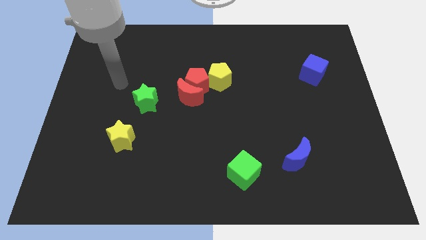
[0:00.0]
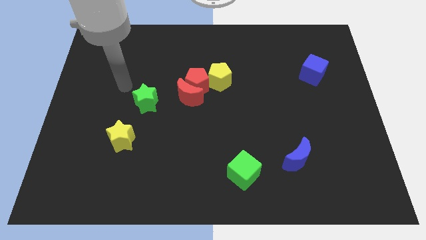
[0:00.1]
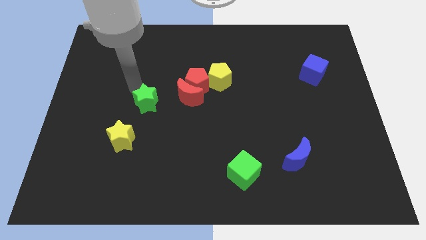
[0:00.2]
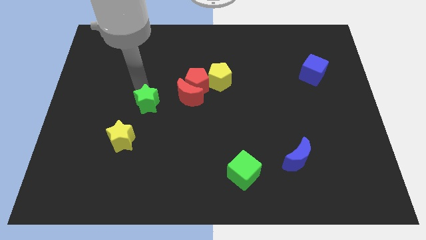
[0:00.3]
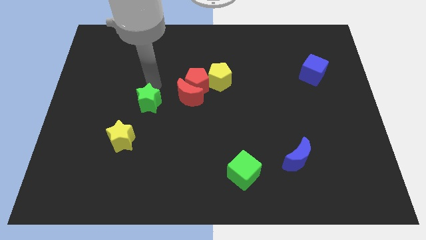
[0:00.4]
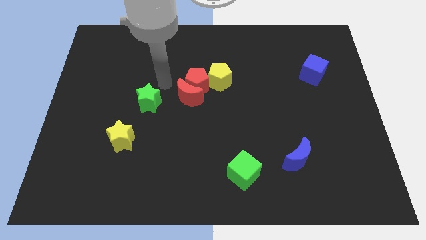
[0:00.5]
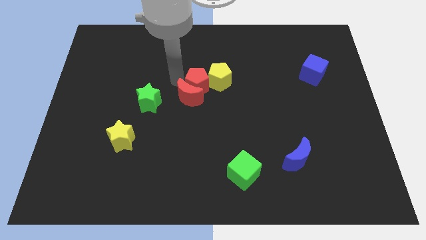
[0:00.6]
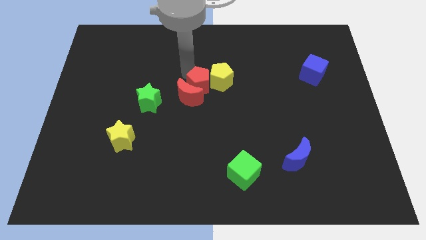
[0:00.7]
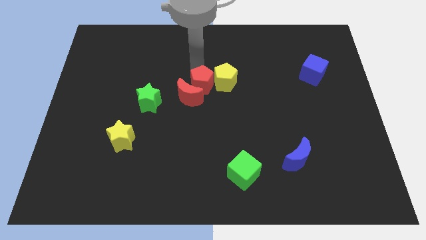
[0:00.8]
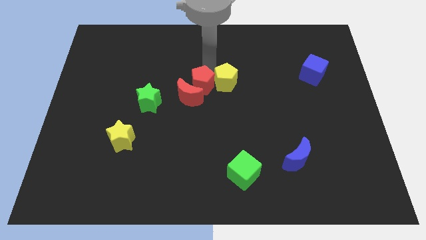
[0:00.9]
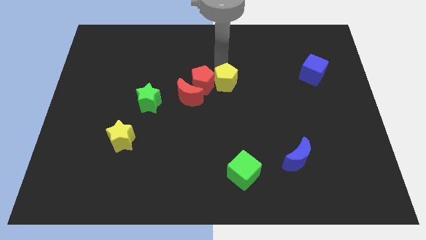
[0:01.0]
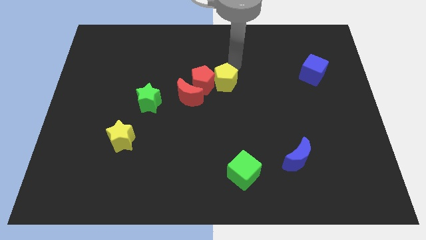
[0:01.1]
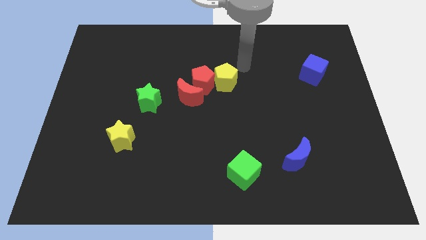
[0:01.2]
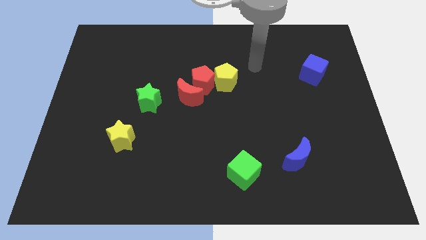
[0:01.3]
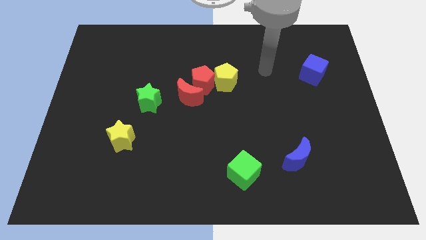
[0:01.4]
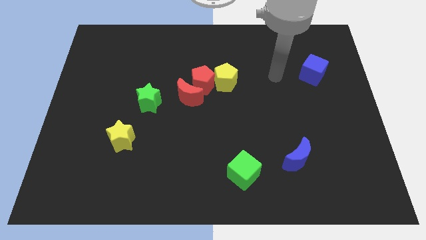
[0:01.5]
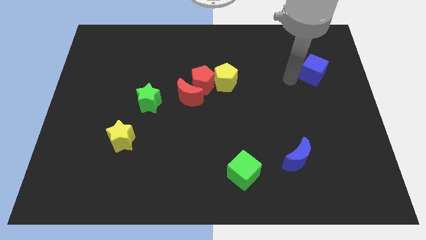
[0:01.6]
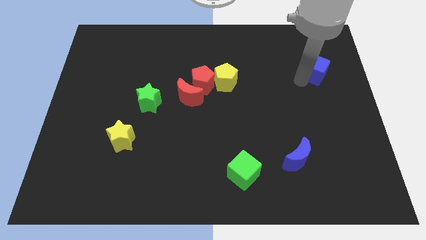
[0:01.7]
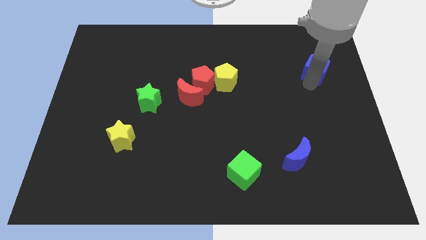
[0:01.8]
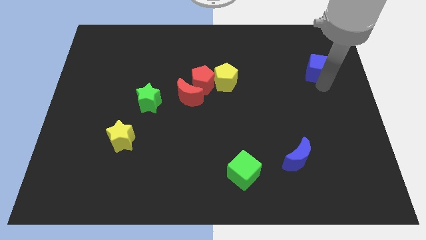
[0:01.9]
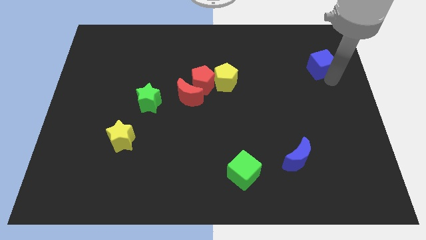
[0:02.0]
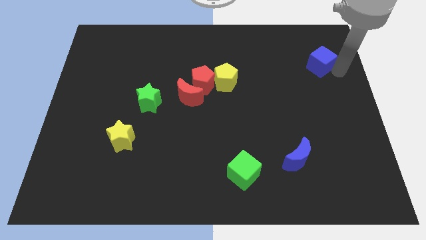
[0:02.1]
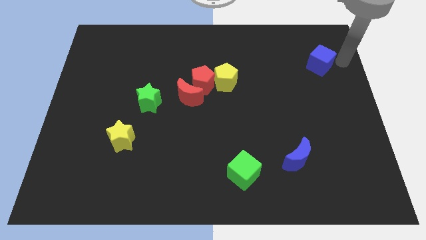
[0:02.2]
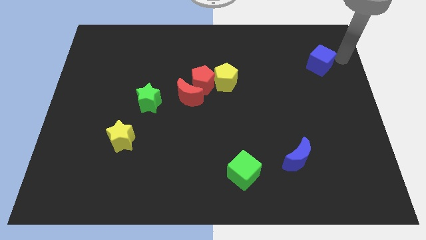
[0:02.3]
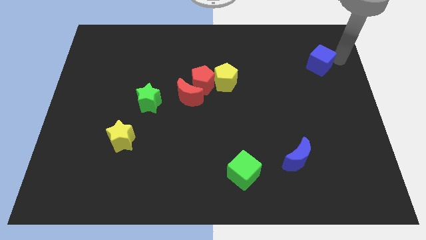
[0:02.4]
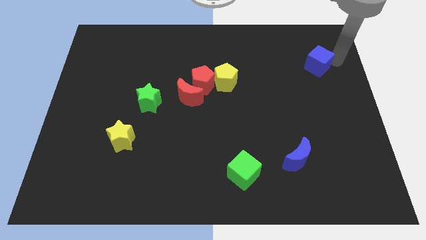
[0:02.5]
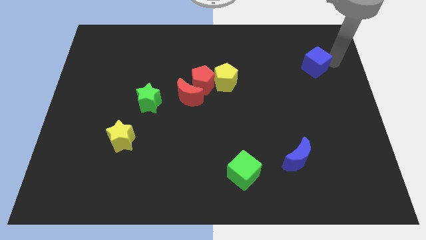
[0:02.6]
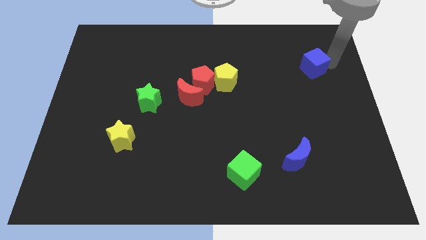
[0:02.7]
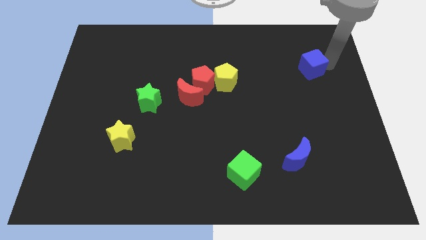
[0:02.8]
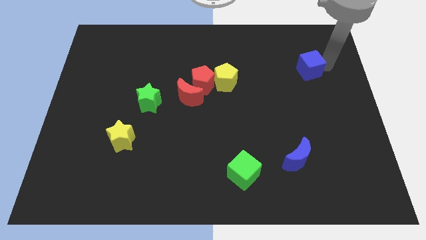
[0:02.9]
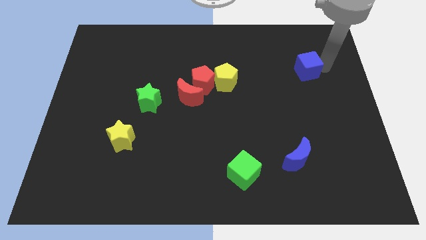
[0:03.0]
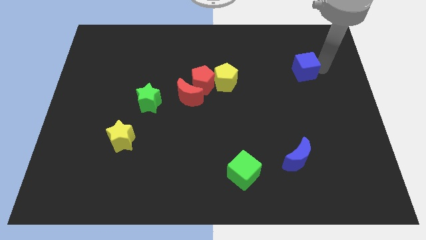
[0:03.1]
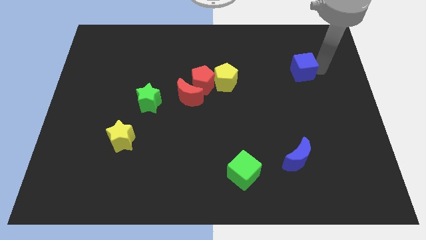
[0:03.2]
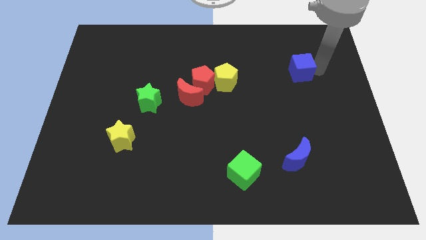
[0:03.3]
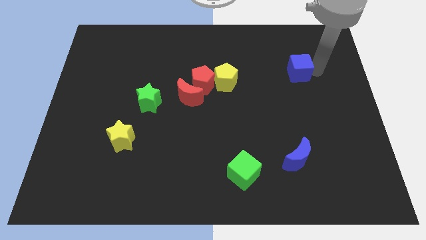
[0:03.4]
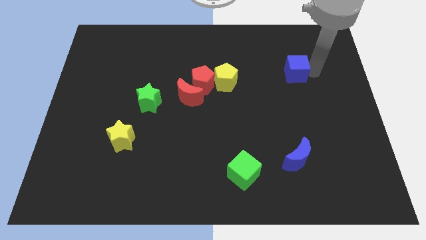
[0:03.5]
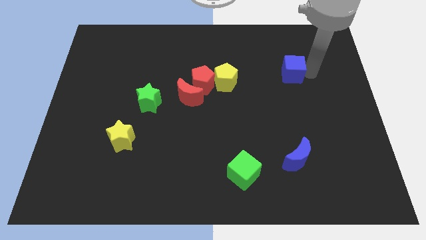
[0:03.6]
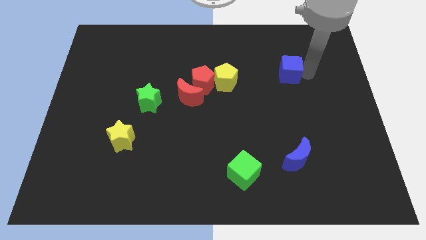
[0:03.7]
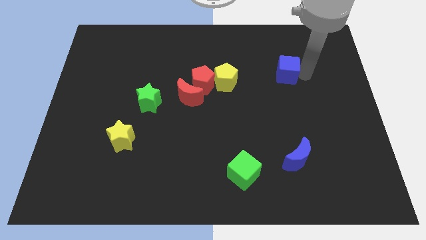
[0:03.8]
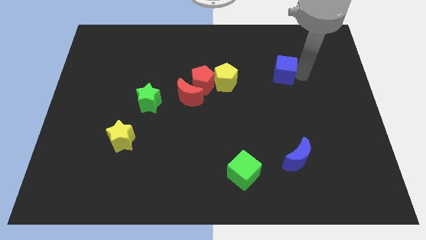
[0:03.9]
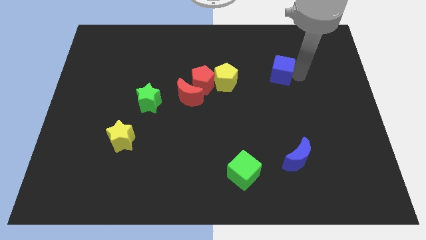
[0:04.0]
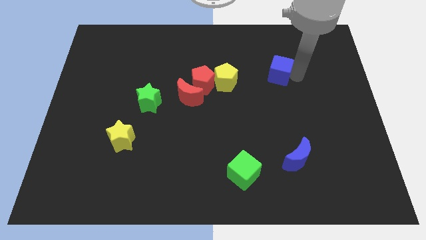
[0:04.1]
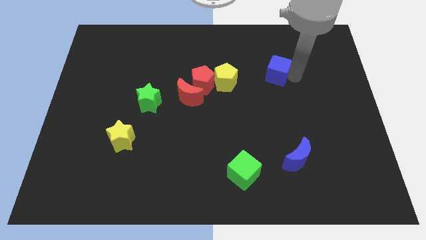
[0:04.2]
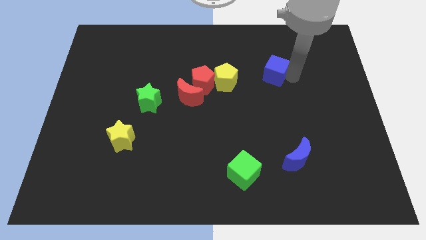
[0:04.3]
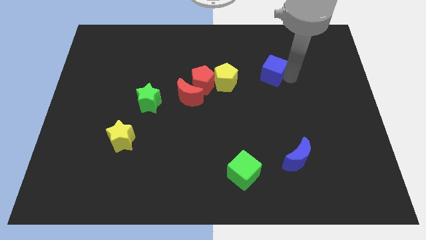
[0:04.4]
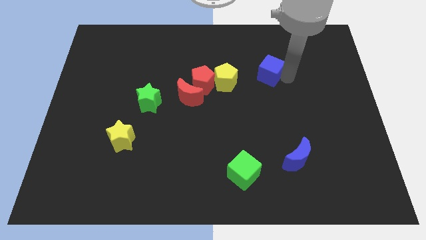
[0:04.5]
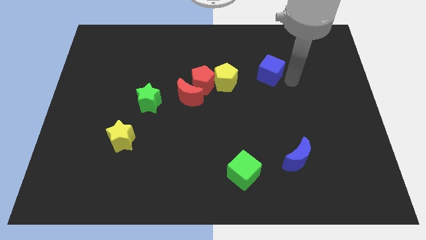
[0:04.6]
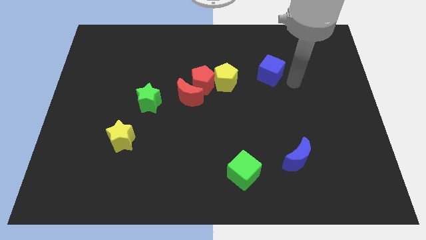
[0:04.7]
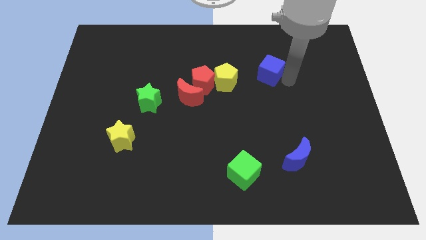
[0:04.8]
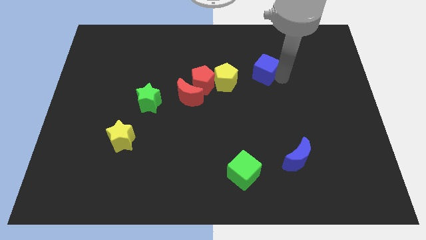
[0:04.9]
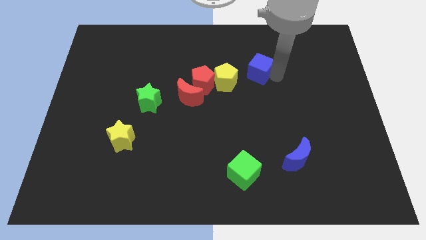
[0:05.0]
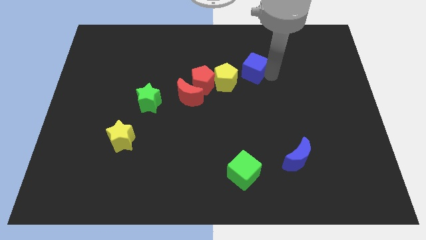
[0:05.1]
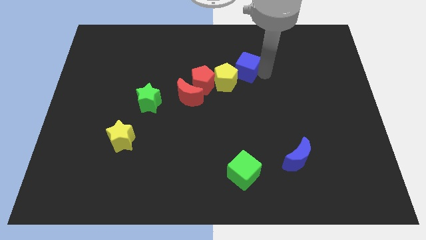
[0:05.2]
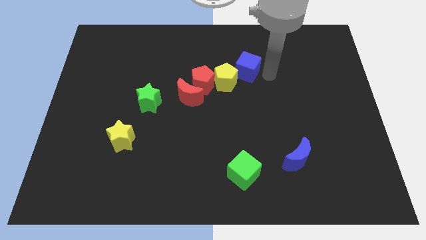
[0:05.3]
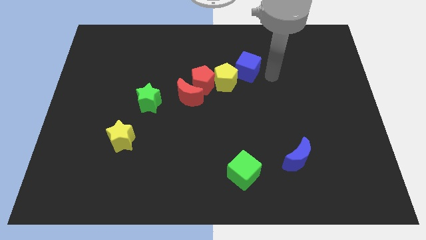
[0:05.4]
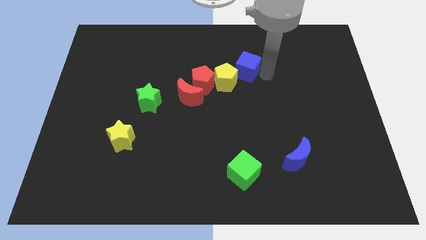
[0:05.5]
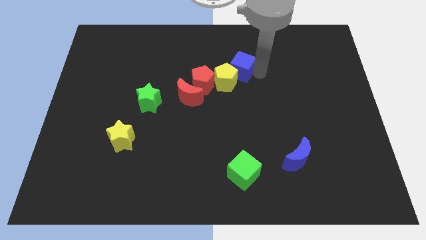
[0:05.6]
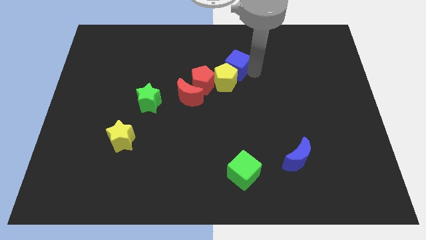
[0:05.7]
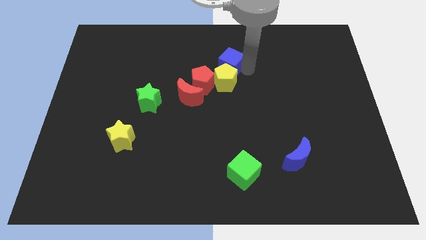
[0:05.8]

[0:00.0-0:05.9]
slide the blue cube left

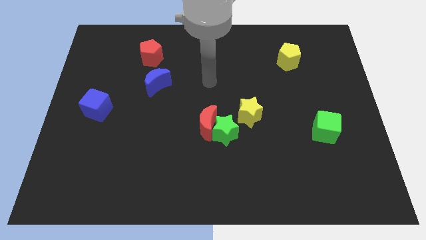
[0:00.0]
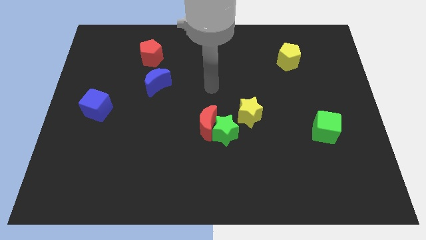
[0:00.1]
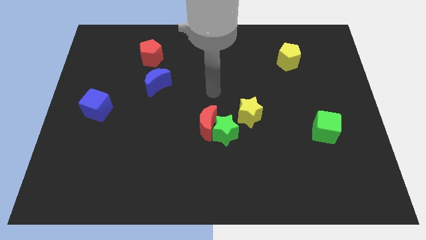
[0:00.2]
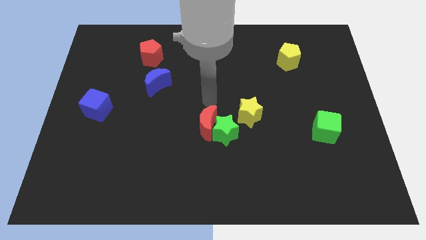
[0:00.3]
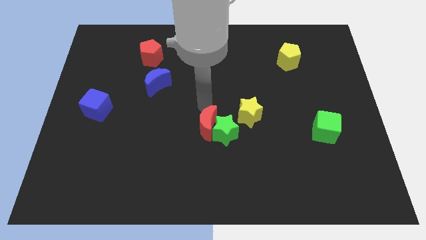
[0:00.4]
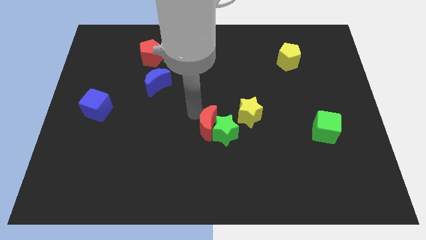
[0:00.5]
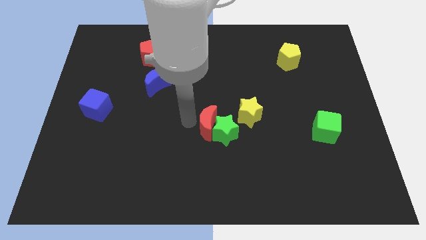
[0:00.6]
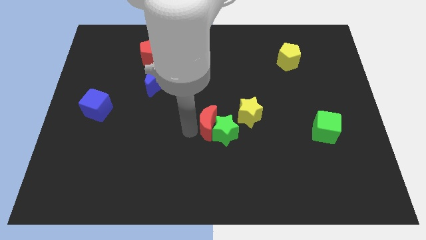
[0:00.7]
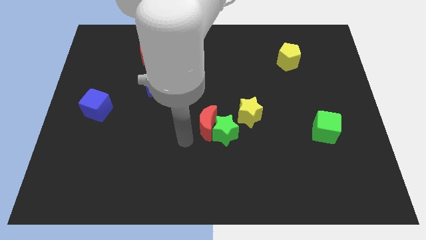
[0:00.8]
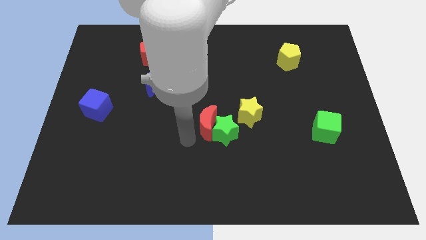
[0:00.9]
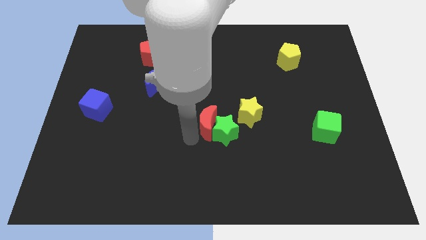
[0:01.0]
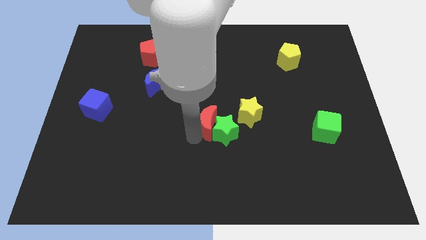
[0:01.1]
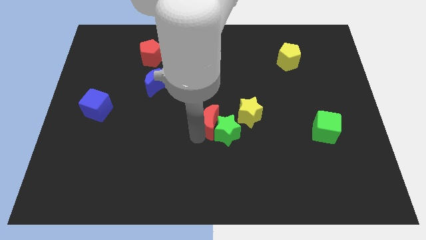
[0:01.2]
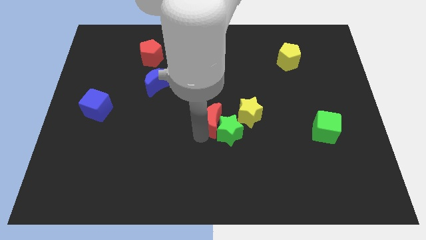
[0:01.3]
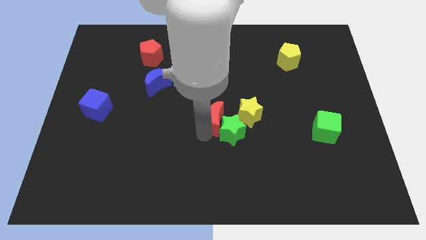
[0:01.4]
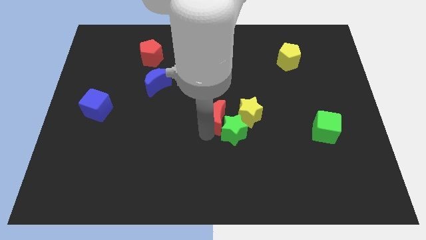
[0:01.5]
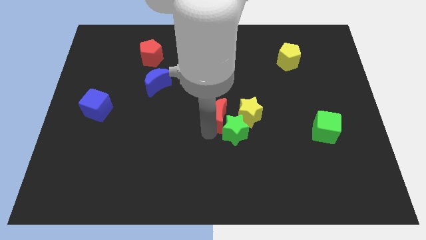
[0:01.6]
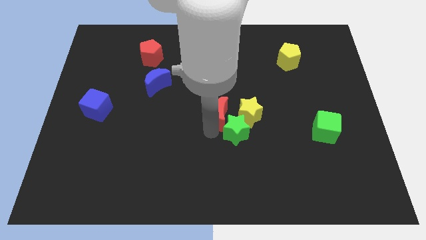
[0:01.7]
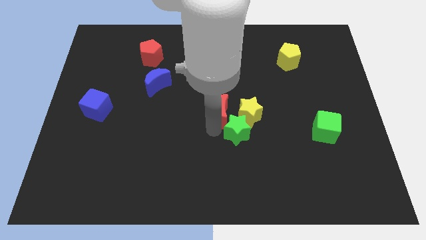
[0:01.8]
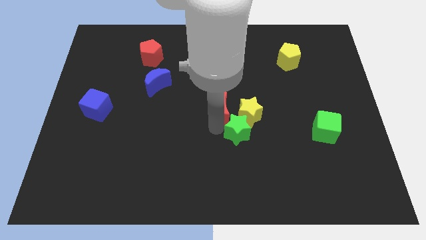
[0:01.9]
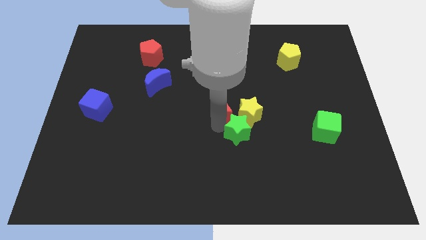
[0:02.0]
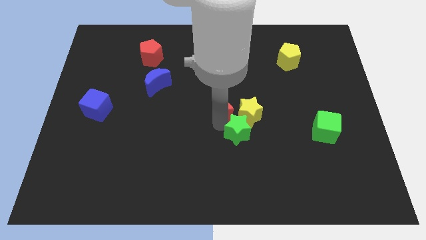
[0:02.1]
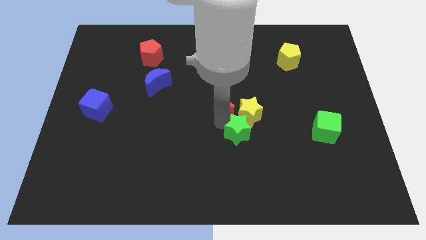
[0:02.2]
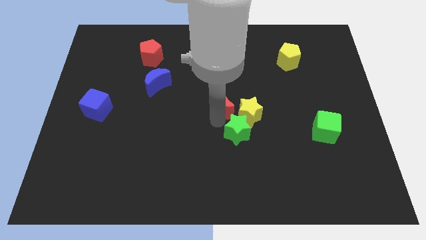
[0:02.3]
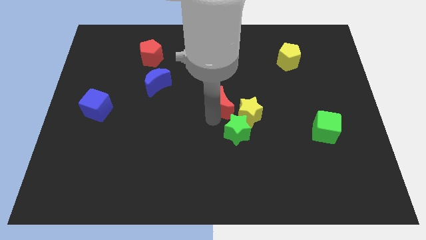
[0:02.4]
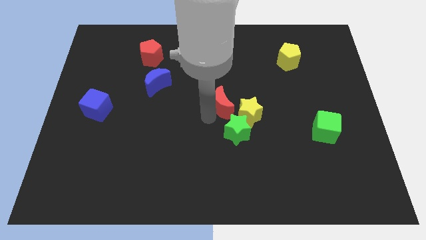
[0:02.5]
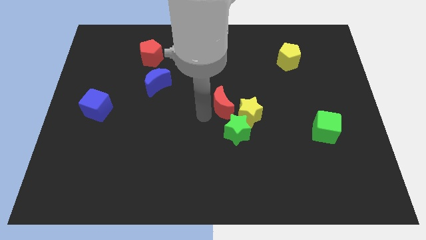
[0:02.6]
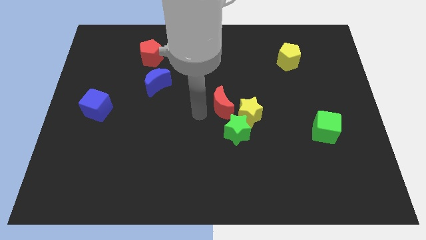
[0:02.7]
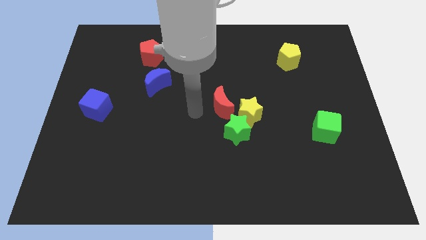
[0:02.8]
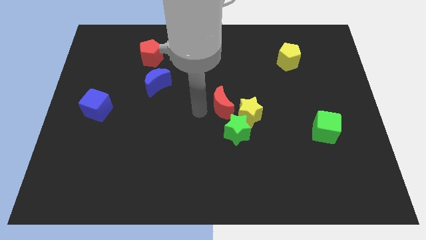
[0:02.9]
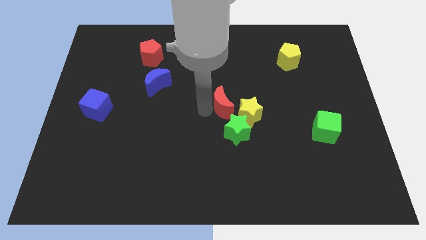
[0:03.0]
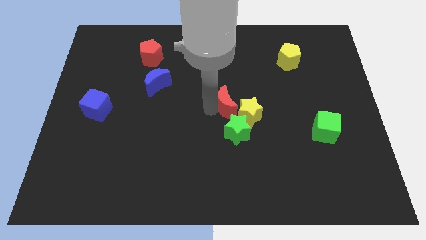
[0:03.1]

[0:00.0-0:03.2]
move the red moon up and right diagonally a bit
